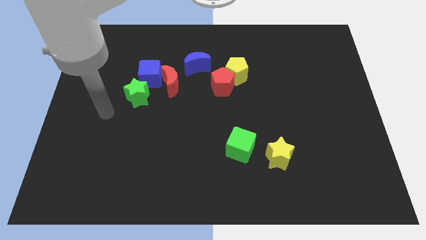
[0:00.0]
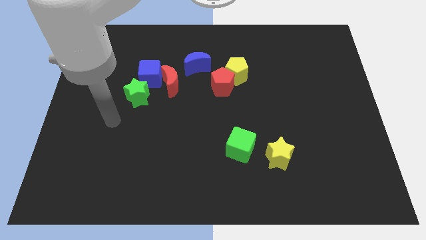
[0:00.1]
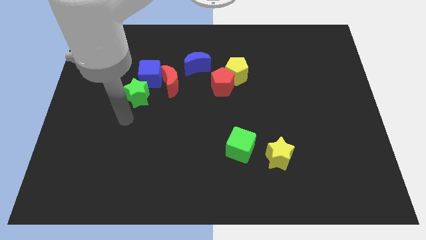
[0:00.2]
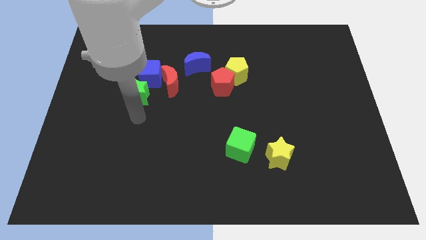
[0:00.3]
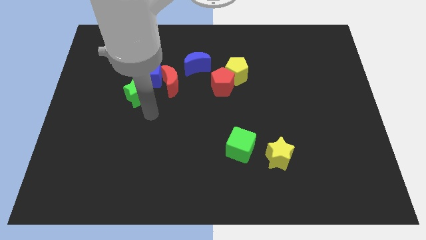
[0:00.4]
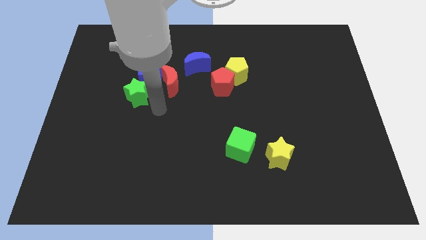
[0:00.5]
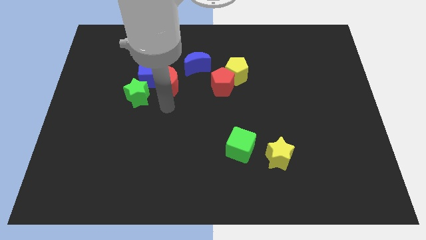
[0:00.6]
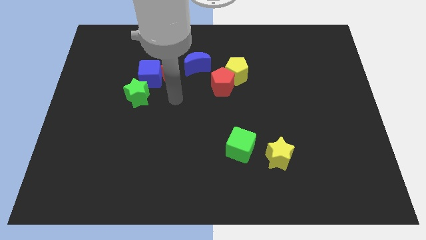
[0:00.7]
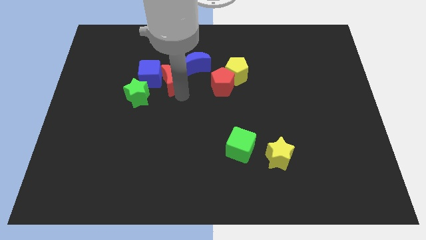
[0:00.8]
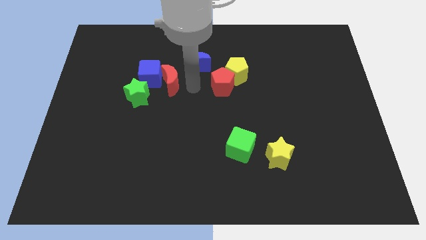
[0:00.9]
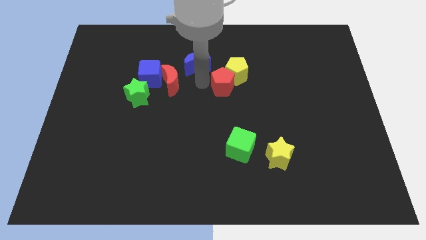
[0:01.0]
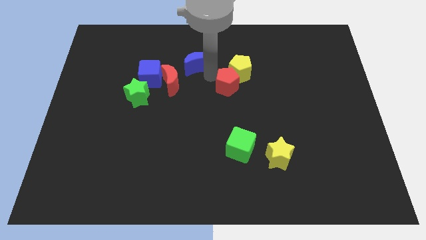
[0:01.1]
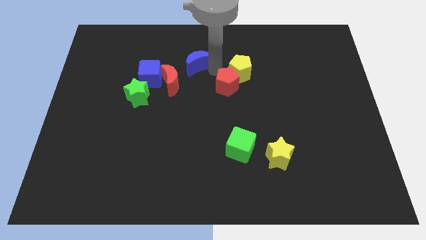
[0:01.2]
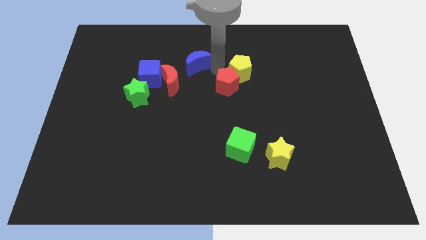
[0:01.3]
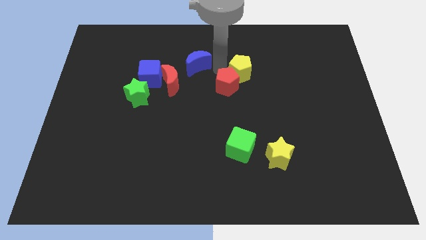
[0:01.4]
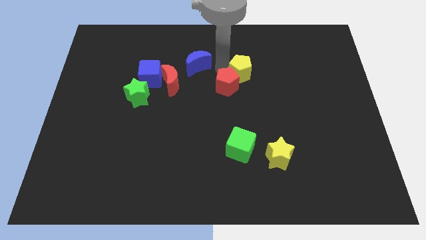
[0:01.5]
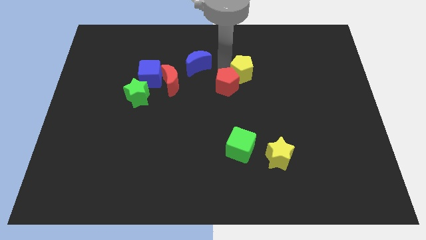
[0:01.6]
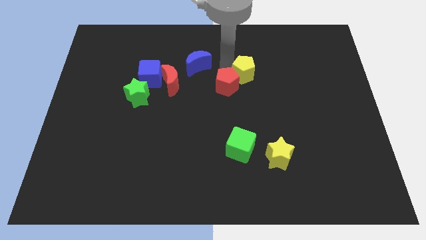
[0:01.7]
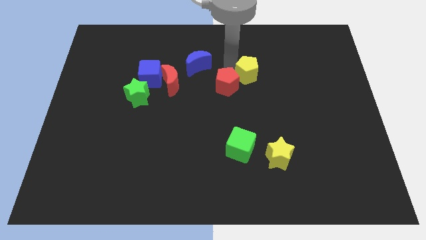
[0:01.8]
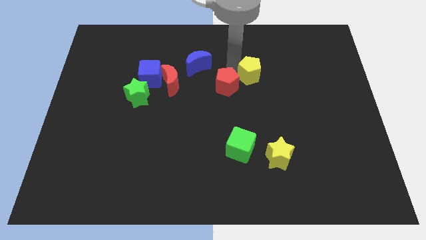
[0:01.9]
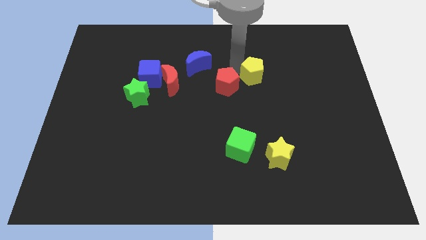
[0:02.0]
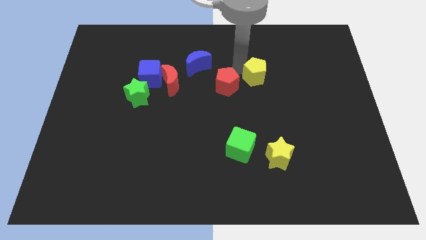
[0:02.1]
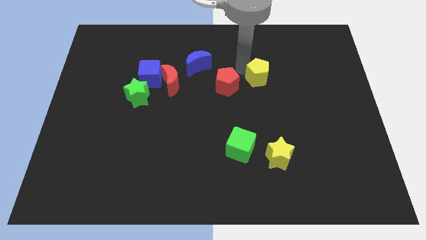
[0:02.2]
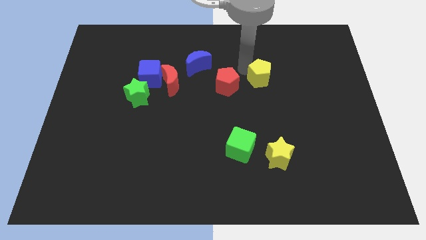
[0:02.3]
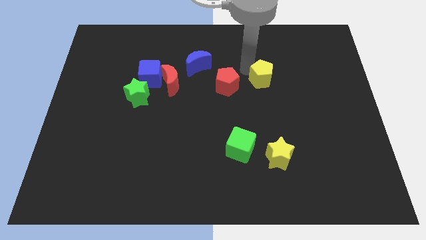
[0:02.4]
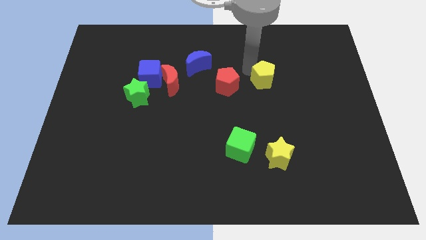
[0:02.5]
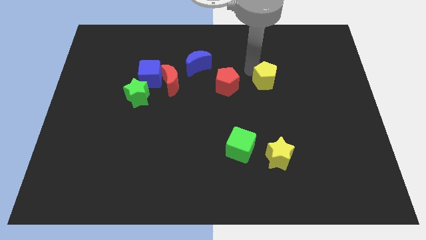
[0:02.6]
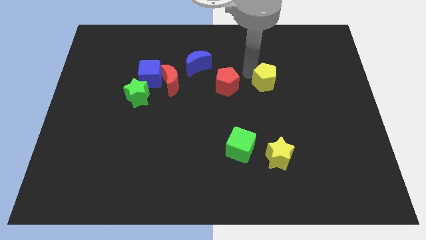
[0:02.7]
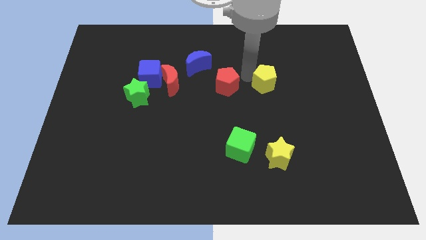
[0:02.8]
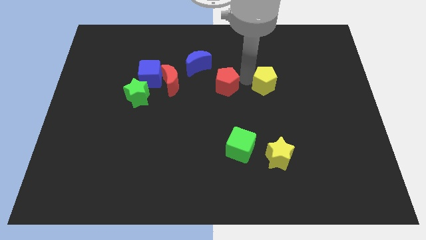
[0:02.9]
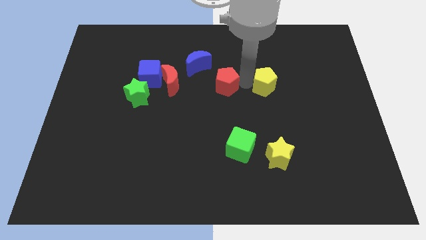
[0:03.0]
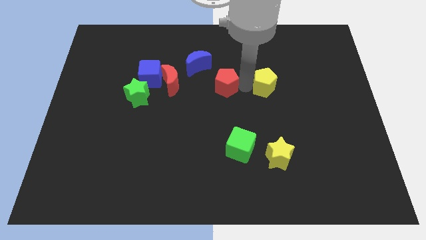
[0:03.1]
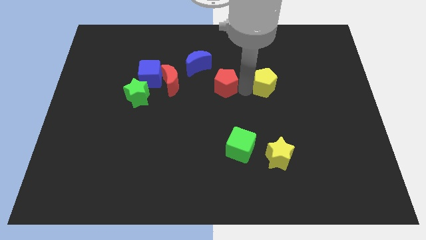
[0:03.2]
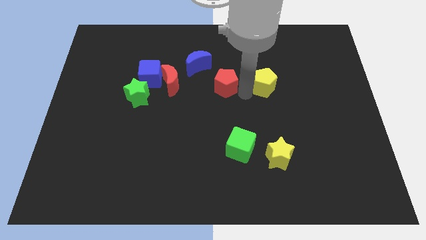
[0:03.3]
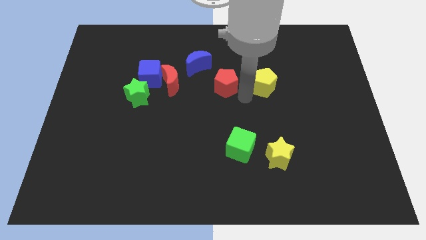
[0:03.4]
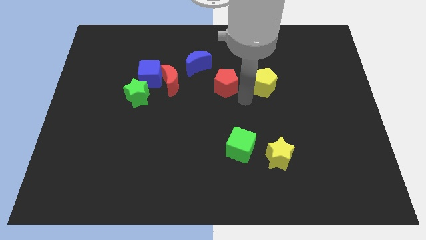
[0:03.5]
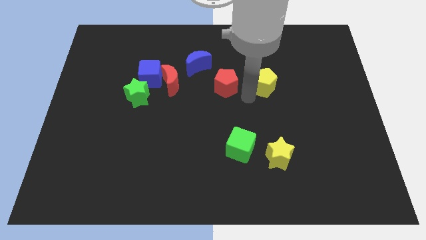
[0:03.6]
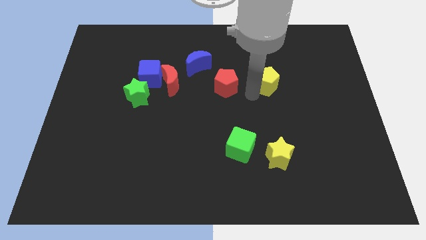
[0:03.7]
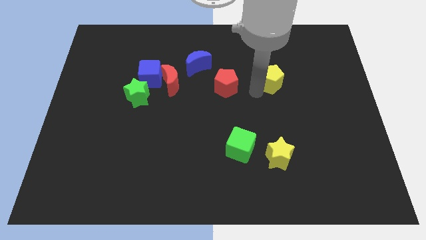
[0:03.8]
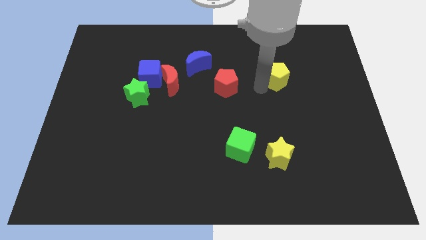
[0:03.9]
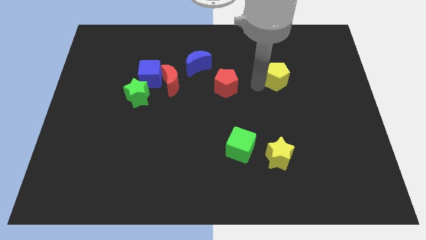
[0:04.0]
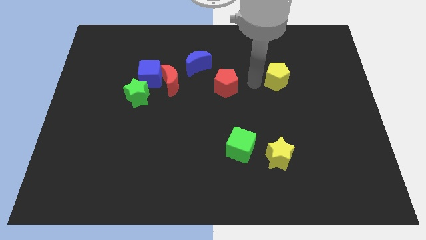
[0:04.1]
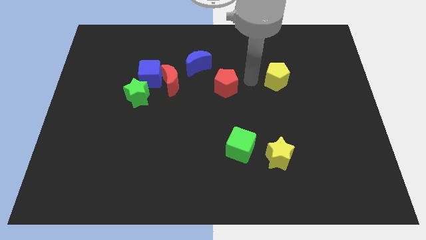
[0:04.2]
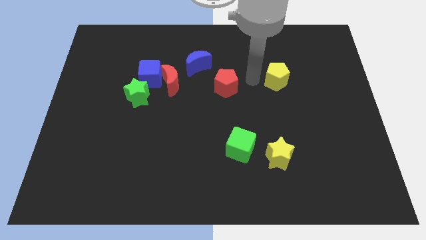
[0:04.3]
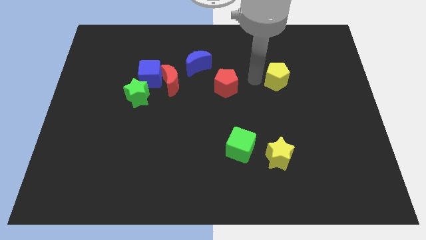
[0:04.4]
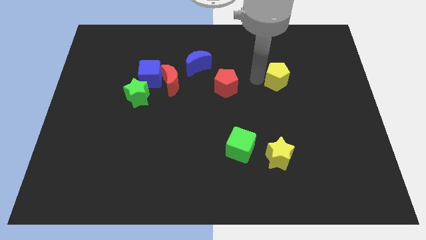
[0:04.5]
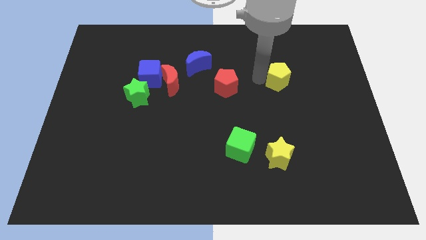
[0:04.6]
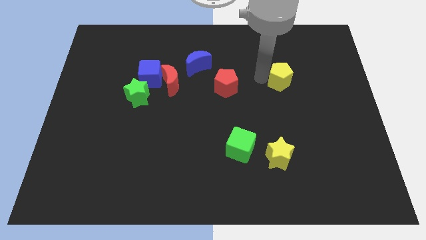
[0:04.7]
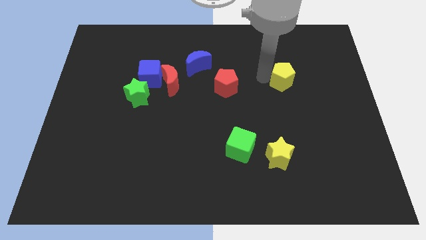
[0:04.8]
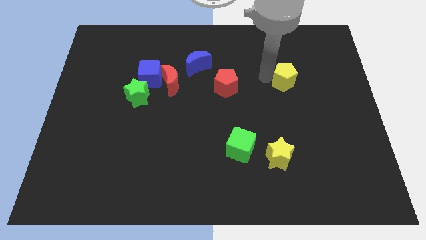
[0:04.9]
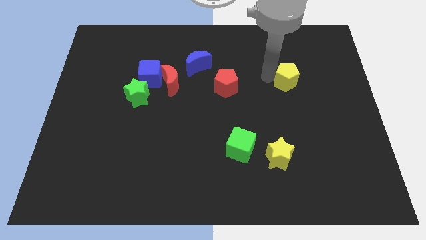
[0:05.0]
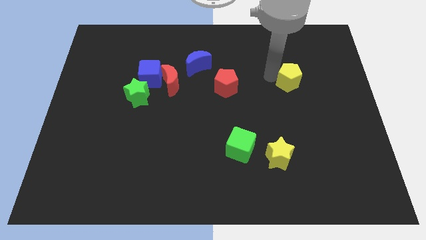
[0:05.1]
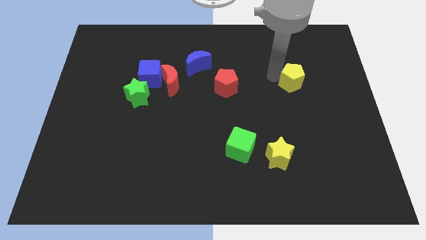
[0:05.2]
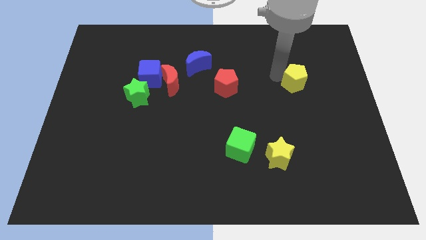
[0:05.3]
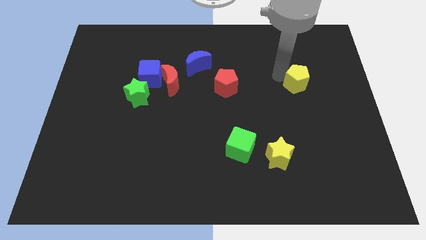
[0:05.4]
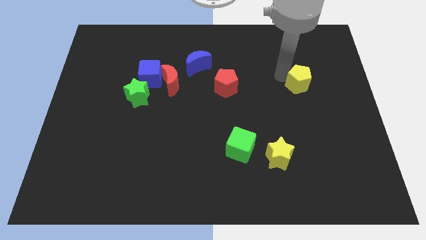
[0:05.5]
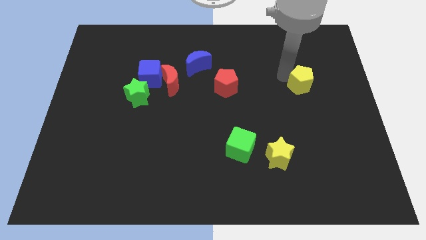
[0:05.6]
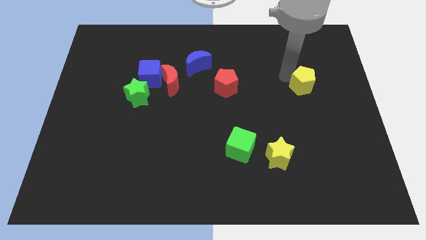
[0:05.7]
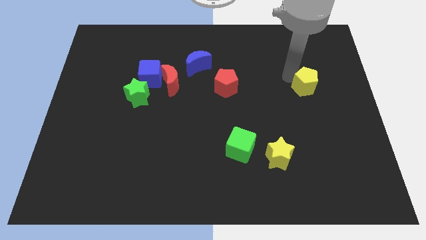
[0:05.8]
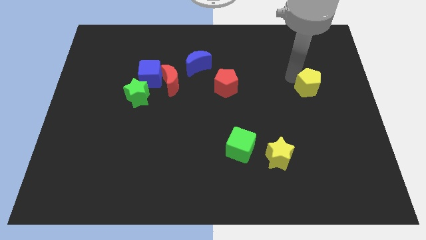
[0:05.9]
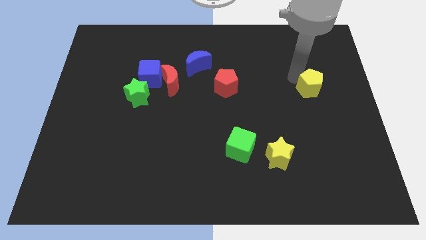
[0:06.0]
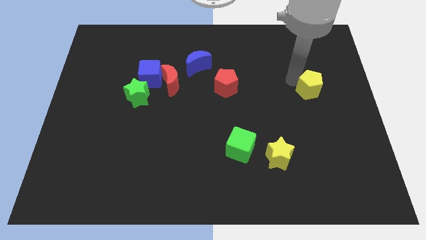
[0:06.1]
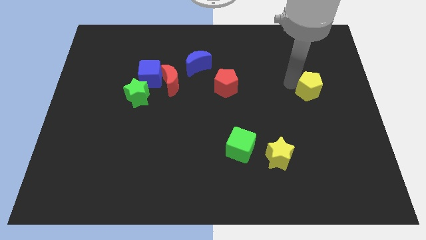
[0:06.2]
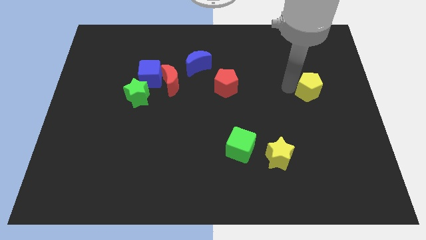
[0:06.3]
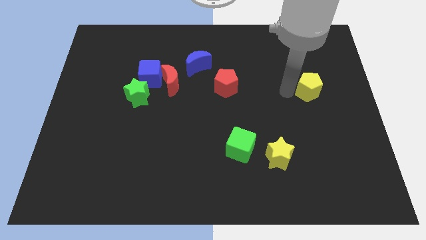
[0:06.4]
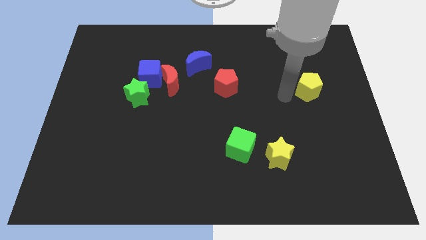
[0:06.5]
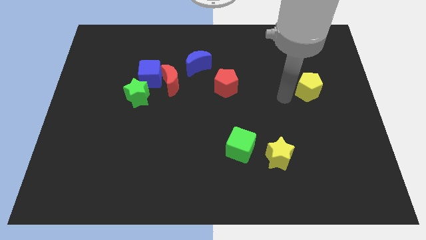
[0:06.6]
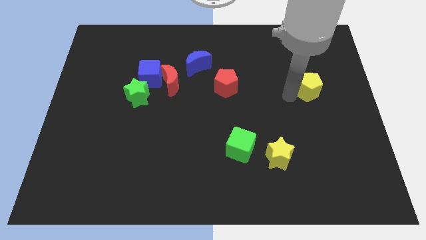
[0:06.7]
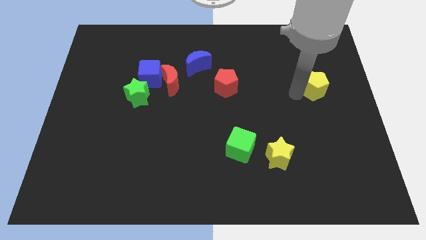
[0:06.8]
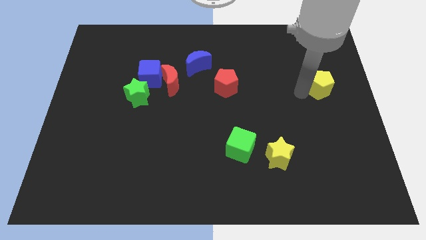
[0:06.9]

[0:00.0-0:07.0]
move the yellow pentagon to the center right
